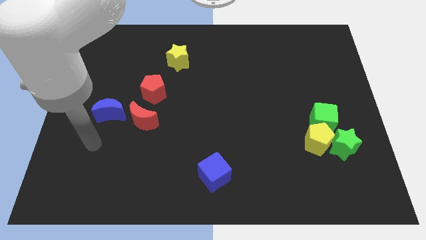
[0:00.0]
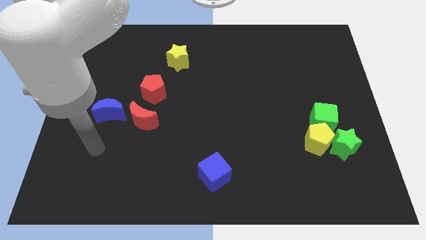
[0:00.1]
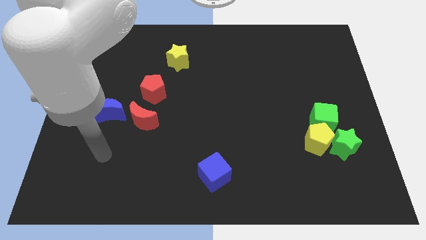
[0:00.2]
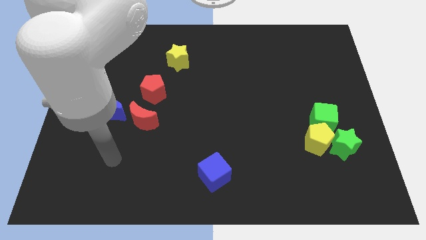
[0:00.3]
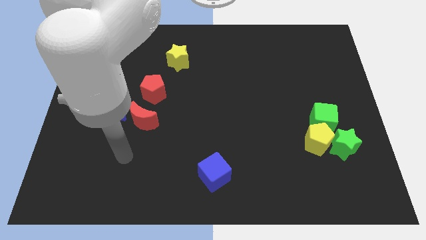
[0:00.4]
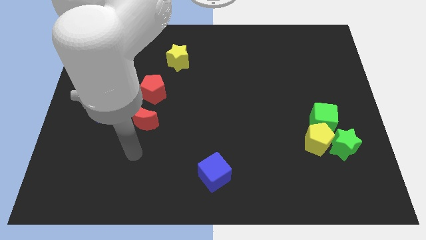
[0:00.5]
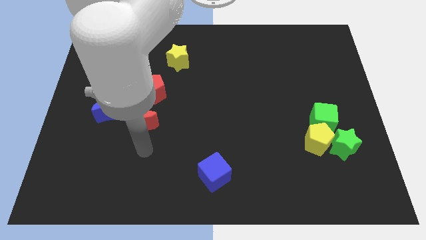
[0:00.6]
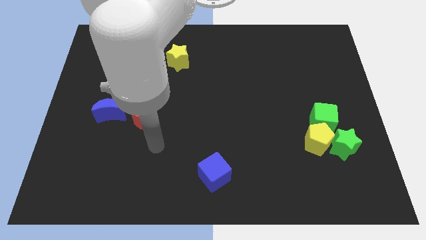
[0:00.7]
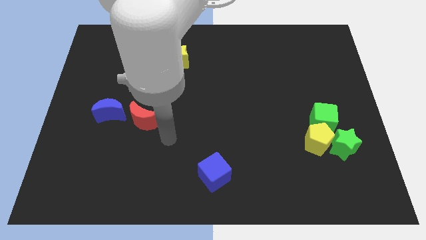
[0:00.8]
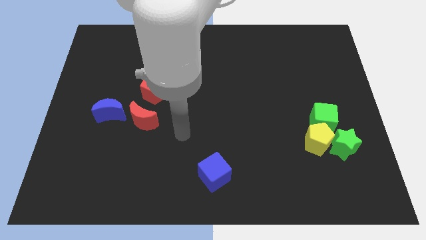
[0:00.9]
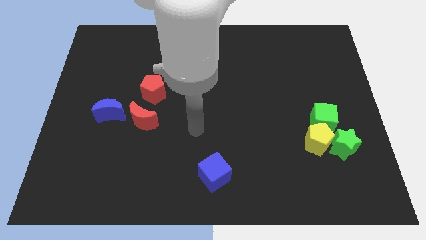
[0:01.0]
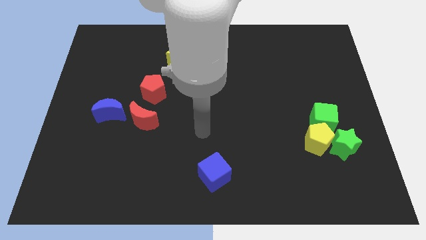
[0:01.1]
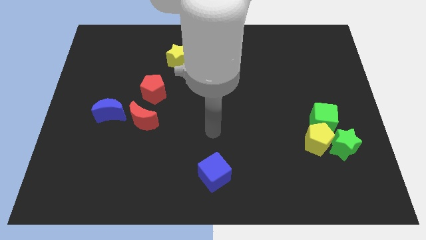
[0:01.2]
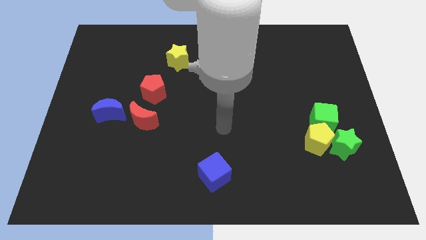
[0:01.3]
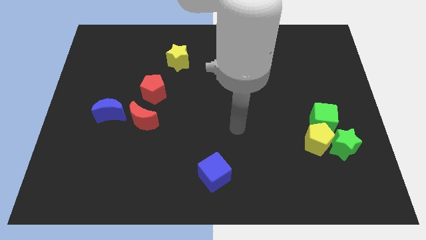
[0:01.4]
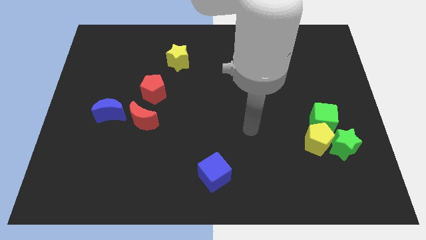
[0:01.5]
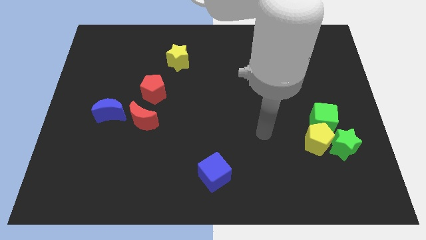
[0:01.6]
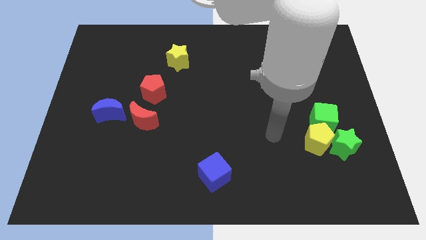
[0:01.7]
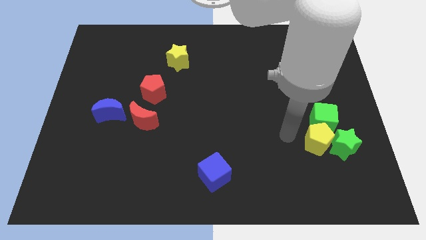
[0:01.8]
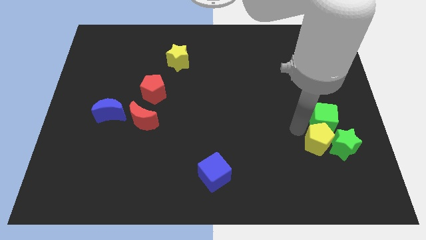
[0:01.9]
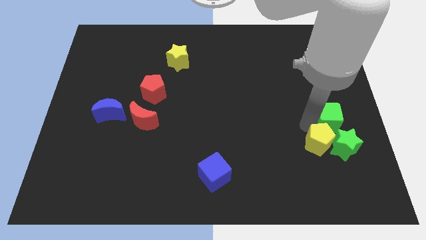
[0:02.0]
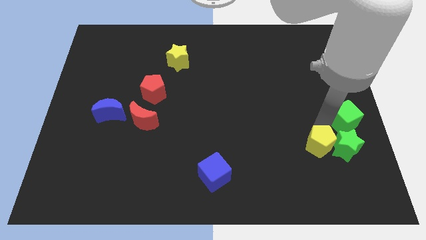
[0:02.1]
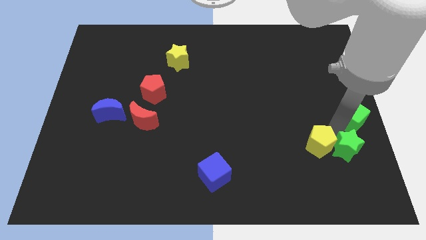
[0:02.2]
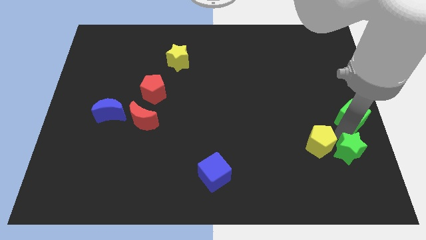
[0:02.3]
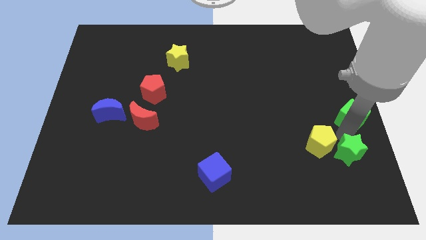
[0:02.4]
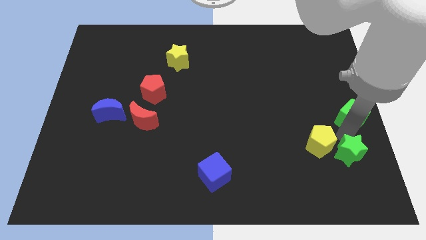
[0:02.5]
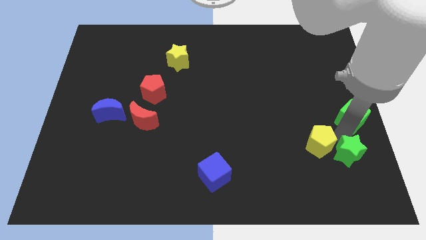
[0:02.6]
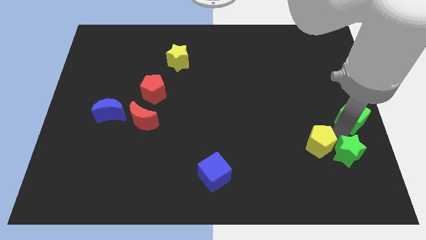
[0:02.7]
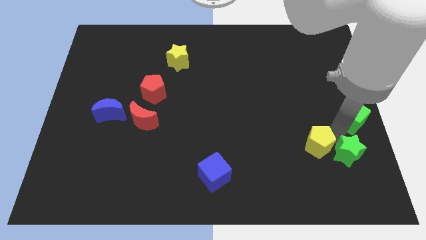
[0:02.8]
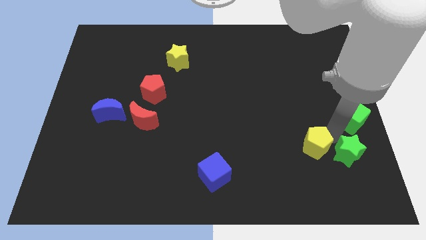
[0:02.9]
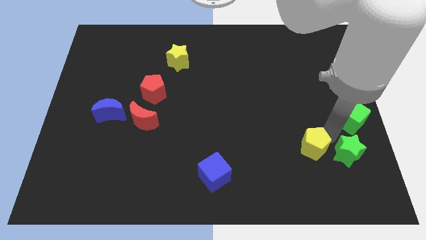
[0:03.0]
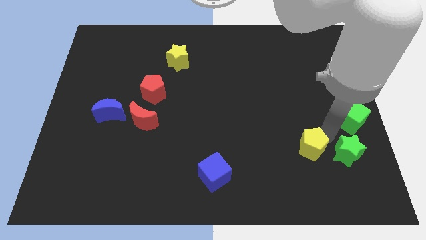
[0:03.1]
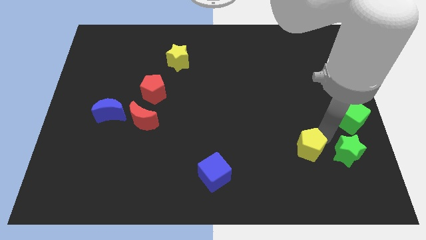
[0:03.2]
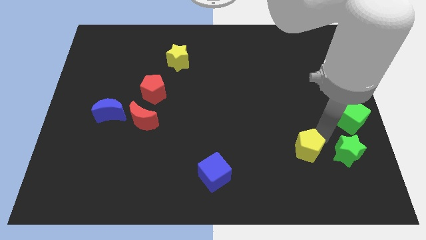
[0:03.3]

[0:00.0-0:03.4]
separate the yellow pentagon from the green star and green cube

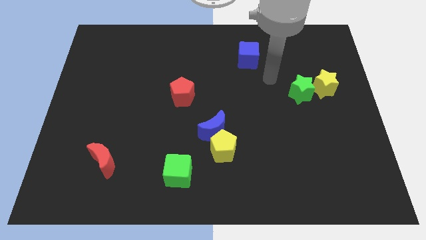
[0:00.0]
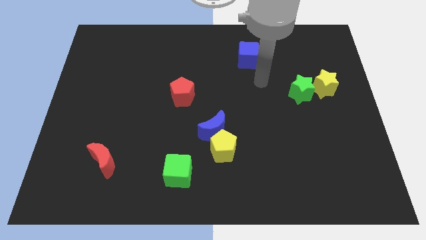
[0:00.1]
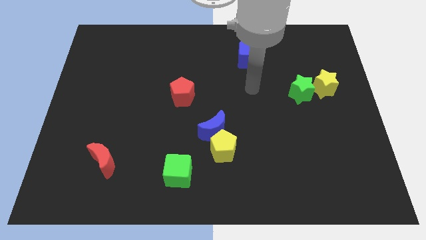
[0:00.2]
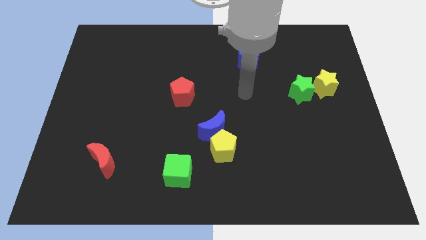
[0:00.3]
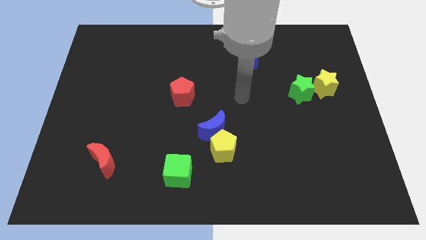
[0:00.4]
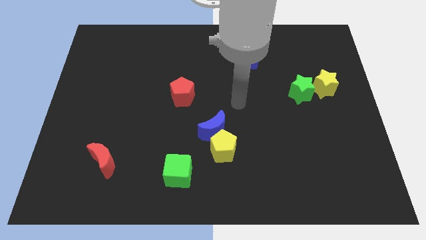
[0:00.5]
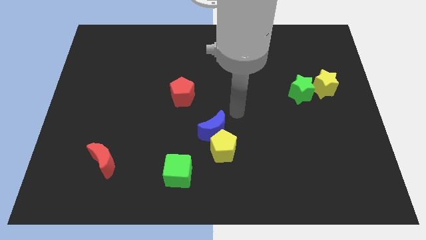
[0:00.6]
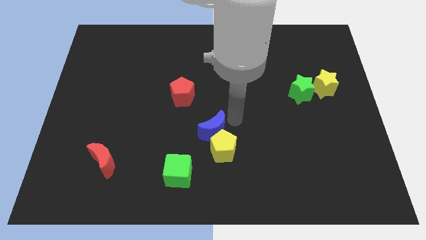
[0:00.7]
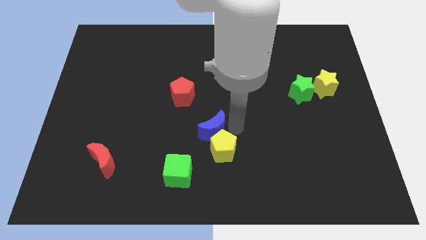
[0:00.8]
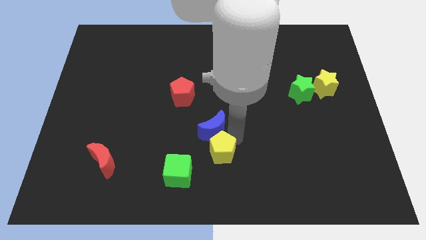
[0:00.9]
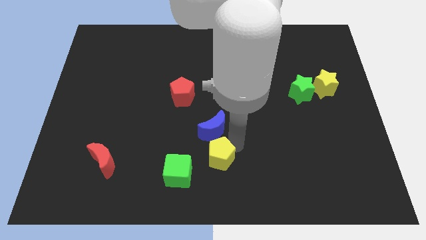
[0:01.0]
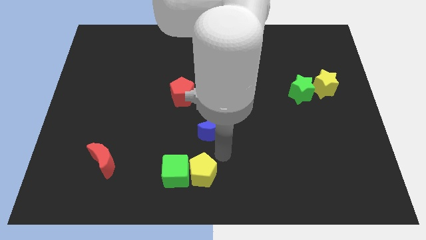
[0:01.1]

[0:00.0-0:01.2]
move the blue moon away from the yellow pentagon

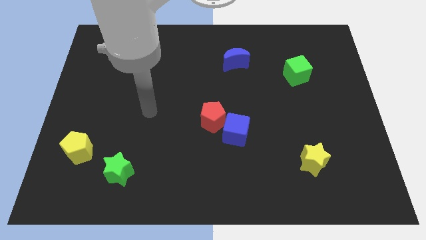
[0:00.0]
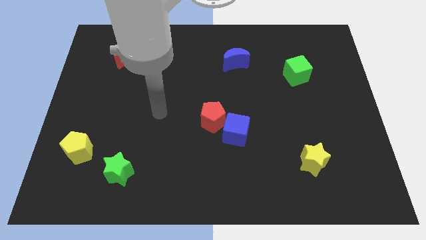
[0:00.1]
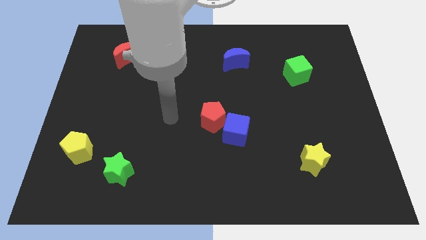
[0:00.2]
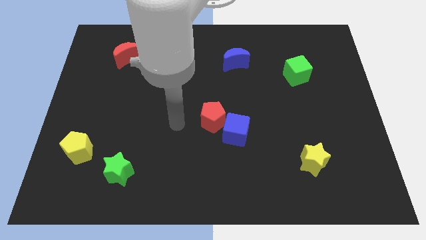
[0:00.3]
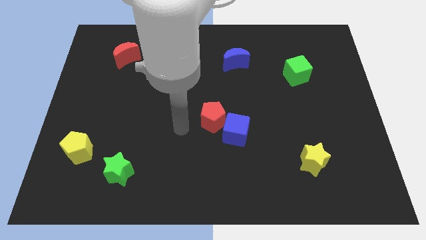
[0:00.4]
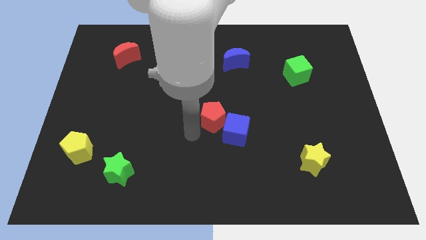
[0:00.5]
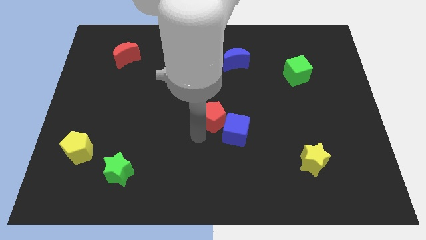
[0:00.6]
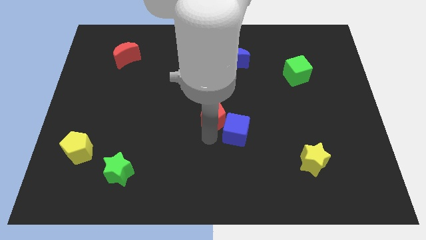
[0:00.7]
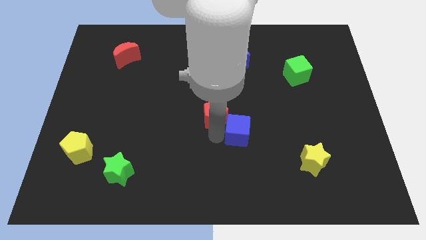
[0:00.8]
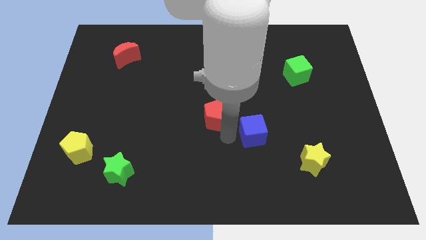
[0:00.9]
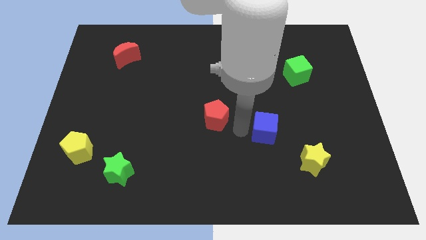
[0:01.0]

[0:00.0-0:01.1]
pull the red pentagon apart from the blue cube

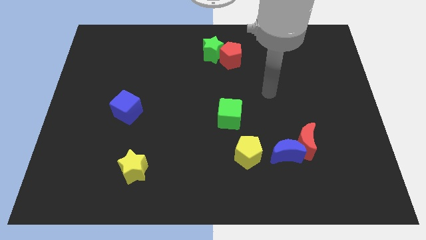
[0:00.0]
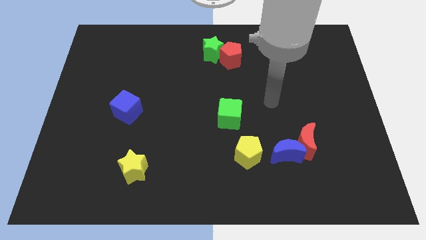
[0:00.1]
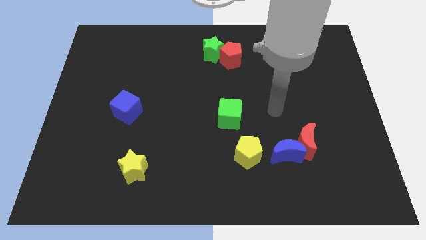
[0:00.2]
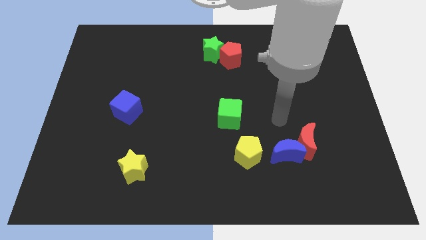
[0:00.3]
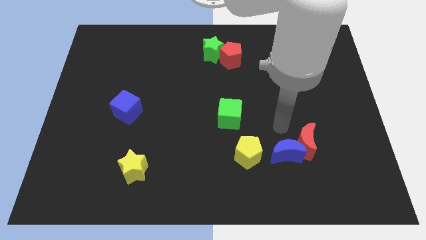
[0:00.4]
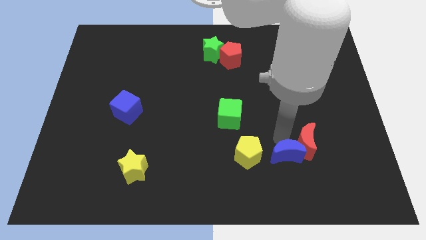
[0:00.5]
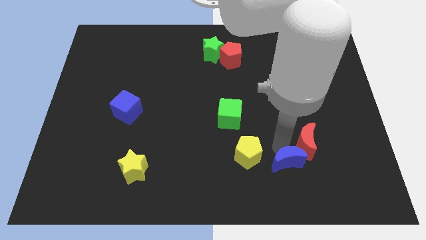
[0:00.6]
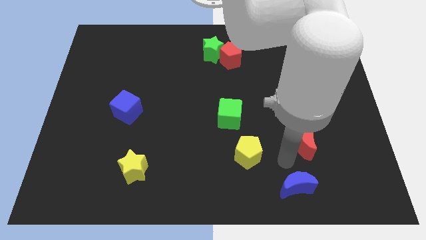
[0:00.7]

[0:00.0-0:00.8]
move the red moon away from the blue moon

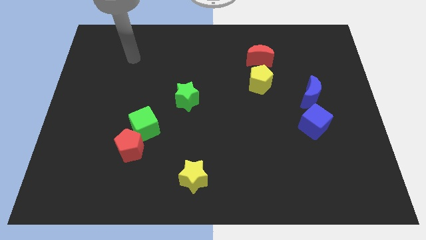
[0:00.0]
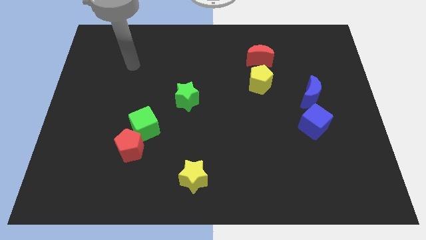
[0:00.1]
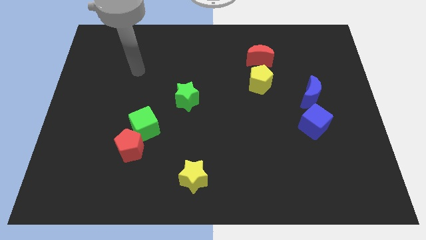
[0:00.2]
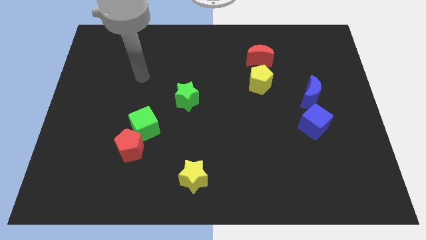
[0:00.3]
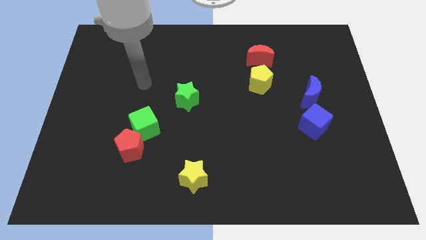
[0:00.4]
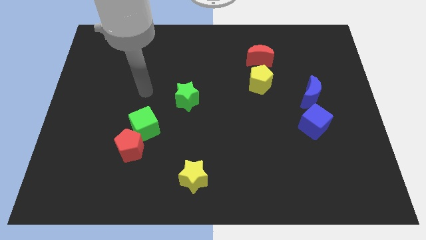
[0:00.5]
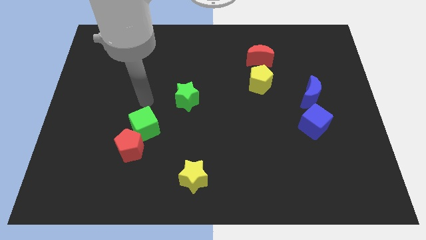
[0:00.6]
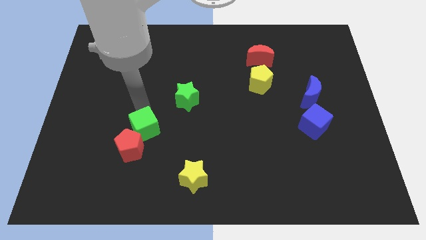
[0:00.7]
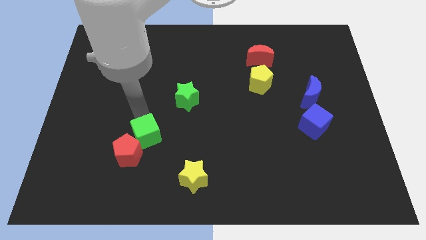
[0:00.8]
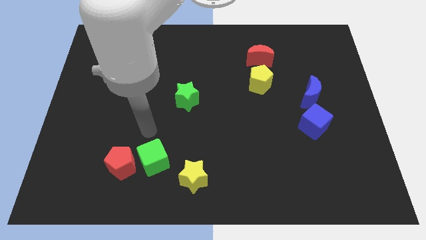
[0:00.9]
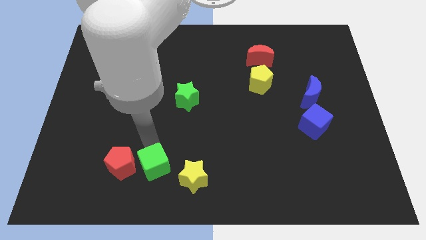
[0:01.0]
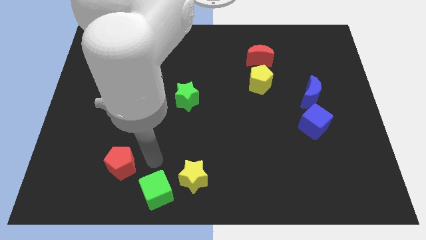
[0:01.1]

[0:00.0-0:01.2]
move the red pentagon away from the green cube

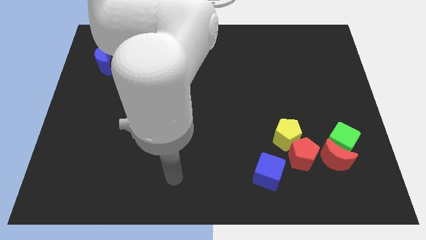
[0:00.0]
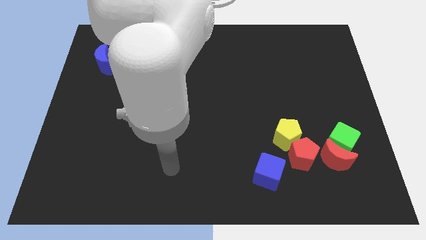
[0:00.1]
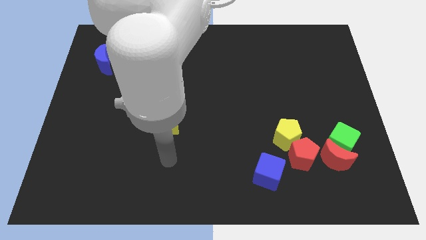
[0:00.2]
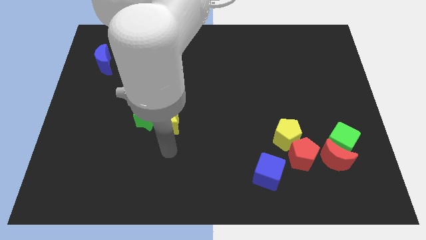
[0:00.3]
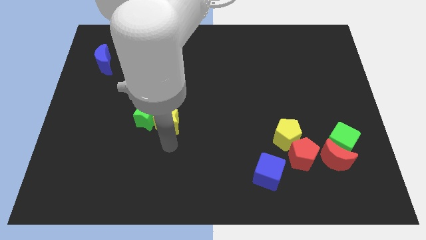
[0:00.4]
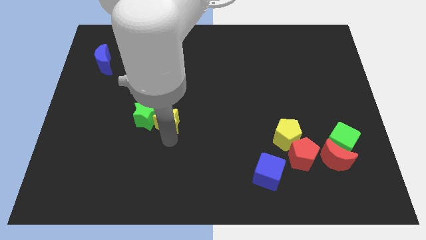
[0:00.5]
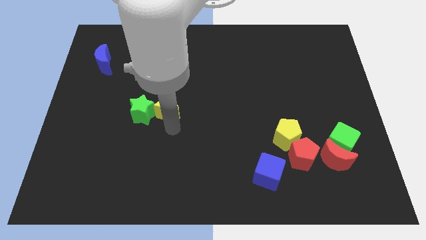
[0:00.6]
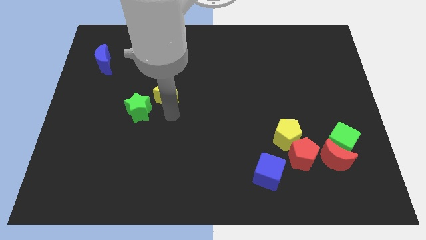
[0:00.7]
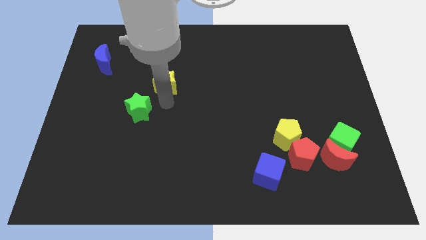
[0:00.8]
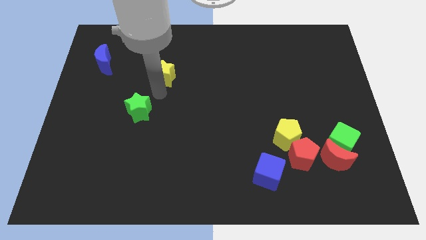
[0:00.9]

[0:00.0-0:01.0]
pull the green star apart from the yellow star

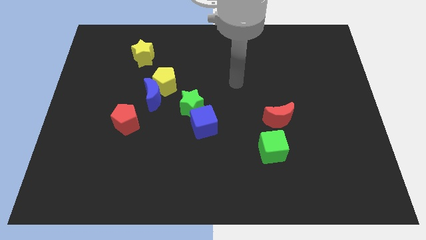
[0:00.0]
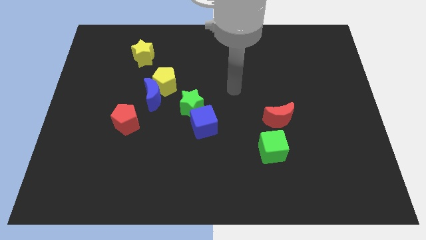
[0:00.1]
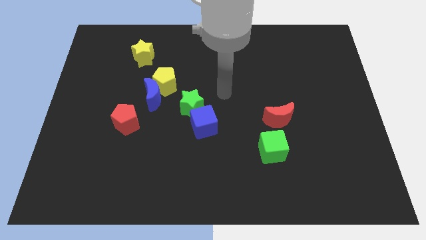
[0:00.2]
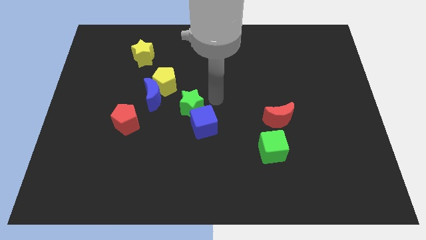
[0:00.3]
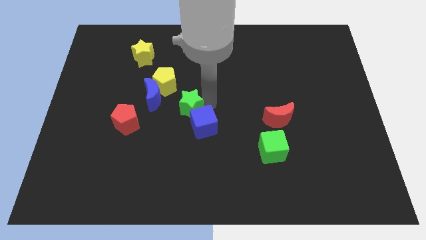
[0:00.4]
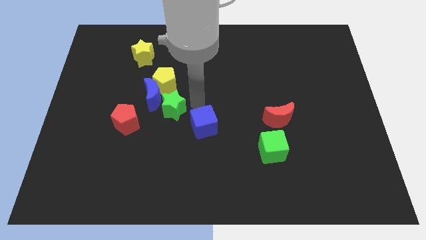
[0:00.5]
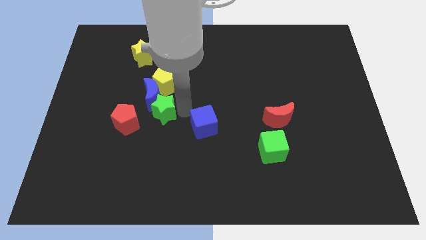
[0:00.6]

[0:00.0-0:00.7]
move the blue cube away from the green star
